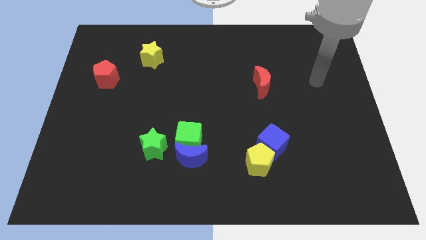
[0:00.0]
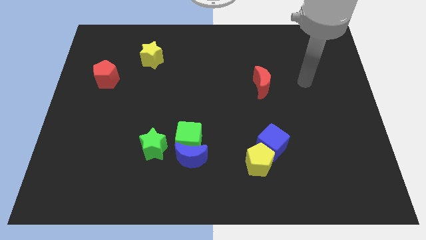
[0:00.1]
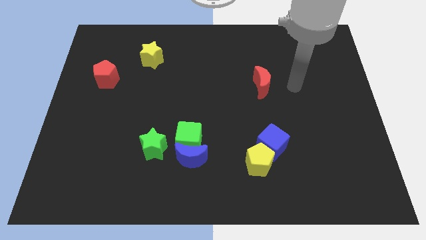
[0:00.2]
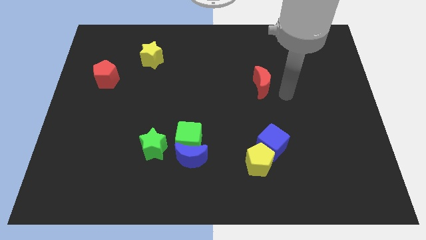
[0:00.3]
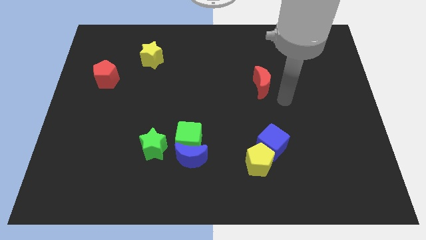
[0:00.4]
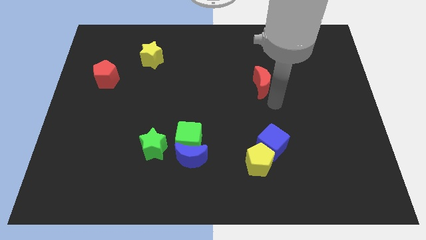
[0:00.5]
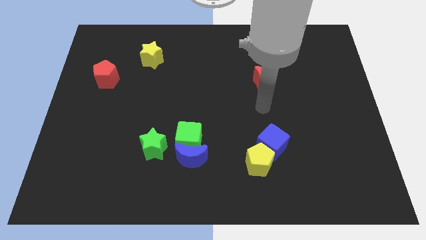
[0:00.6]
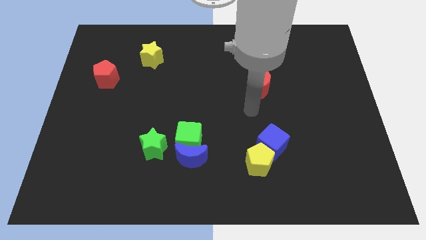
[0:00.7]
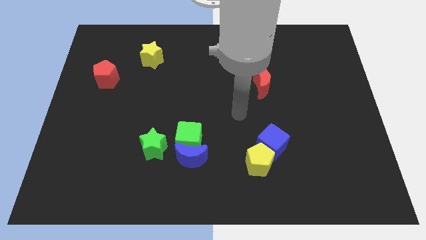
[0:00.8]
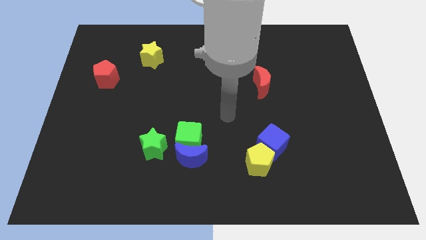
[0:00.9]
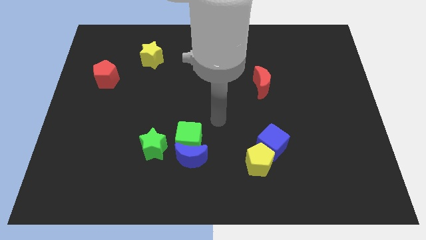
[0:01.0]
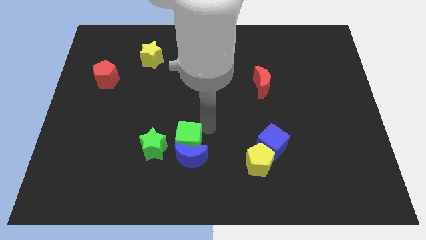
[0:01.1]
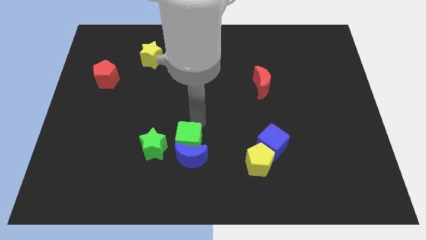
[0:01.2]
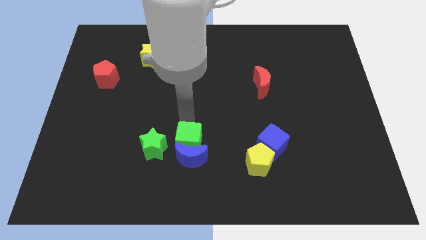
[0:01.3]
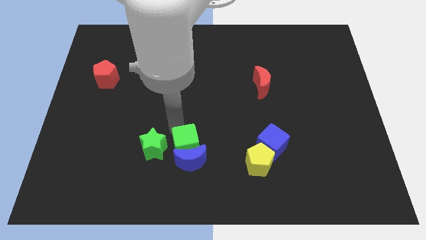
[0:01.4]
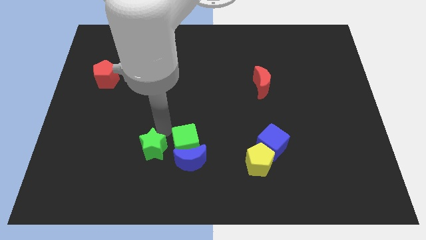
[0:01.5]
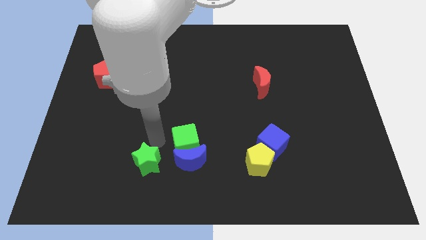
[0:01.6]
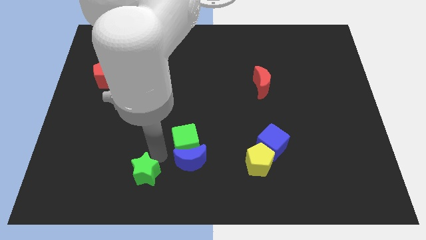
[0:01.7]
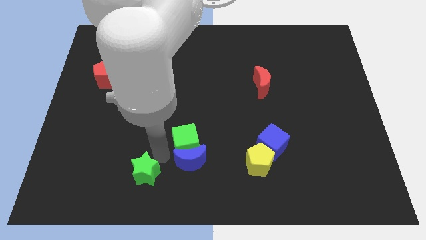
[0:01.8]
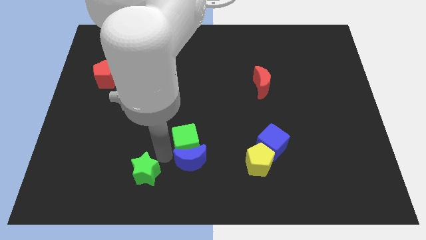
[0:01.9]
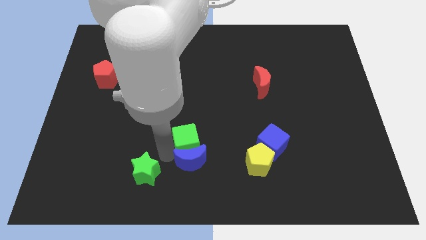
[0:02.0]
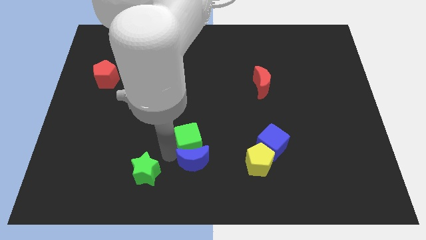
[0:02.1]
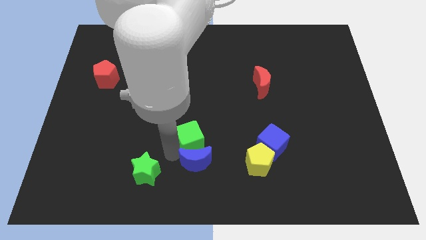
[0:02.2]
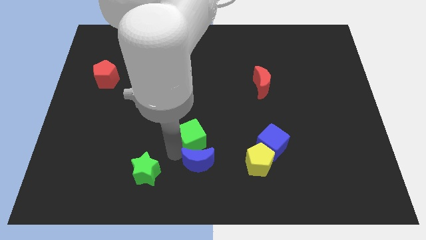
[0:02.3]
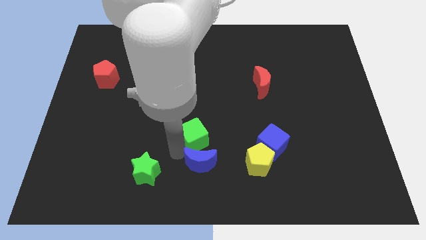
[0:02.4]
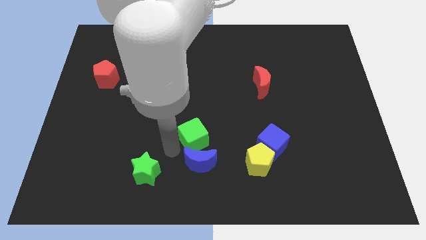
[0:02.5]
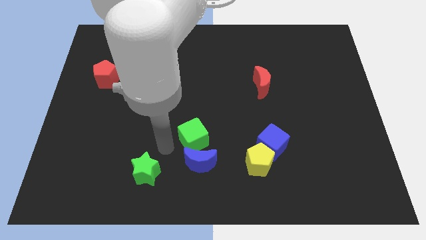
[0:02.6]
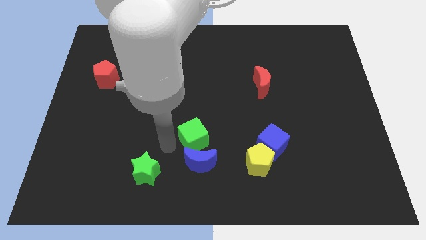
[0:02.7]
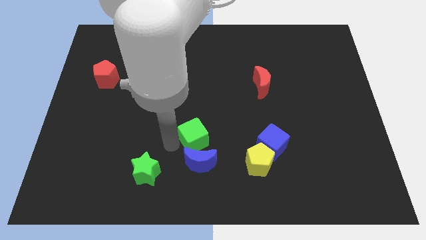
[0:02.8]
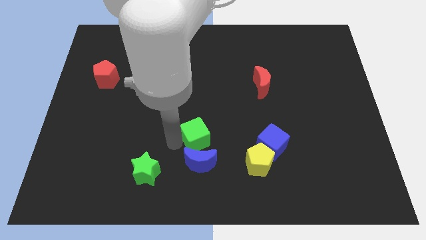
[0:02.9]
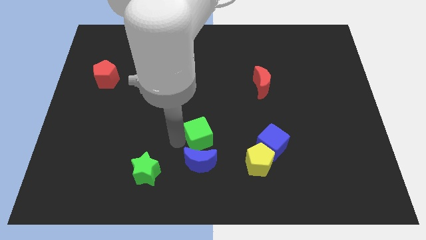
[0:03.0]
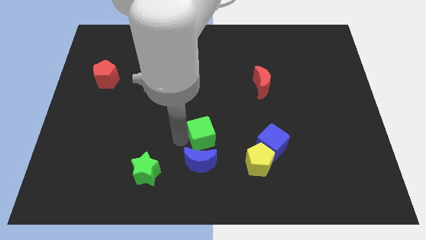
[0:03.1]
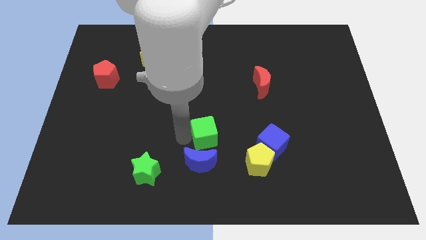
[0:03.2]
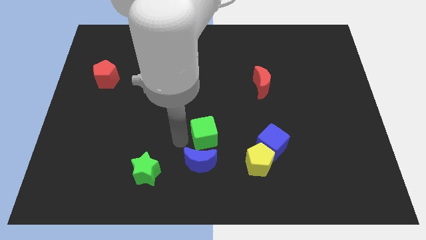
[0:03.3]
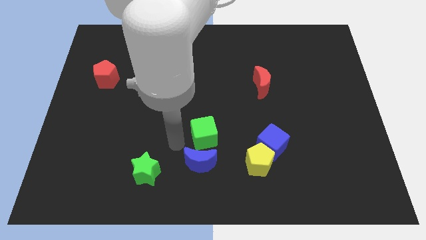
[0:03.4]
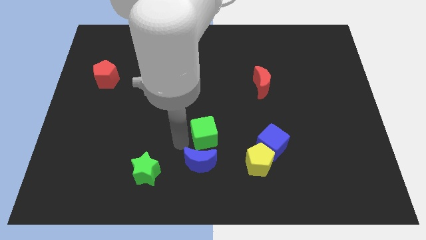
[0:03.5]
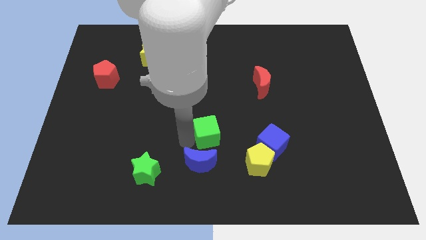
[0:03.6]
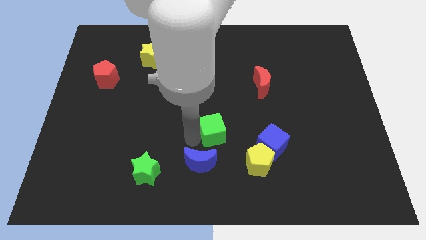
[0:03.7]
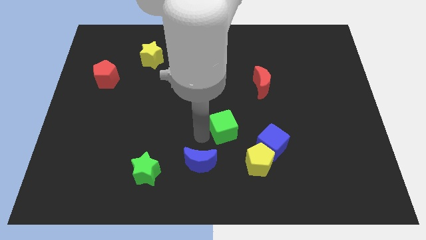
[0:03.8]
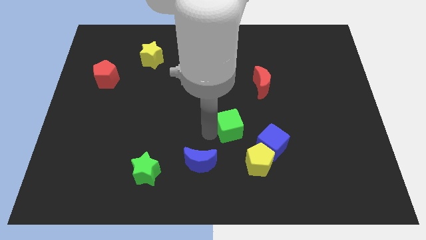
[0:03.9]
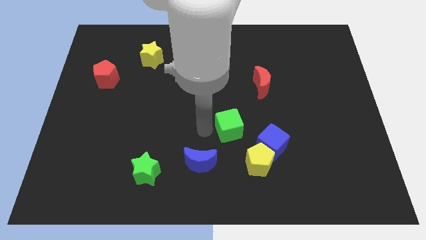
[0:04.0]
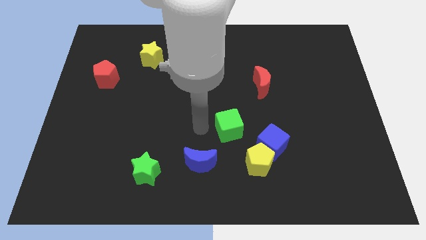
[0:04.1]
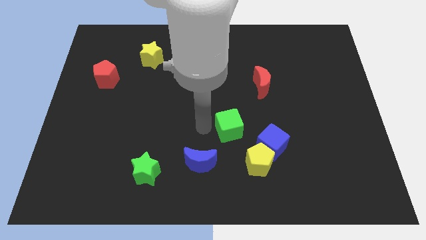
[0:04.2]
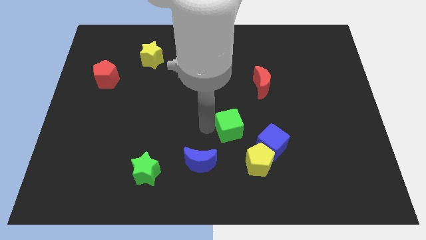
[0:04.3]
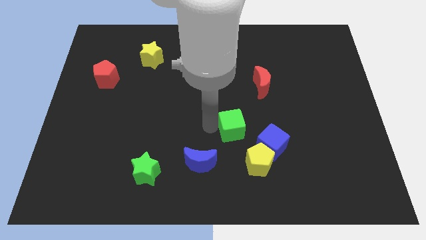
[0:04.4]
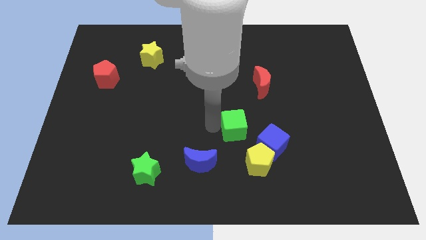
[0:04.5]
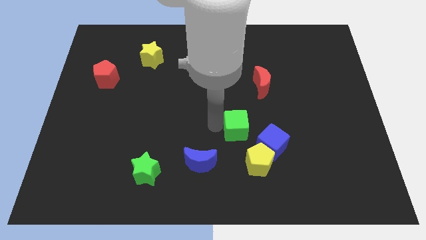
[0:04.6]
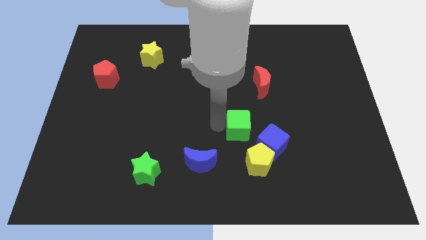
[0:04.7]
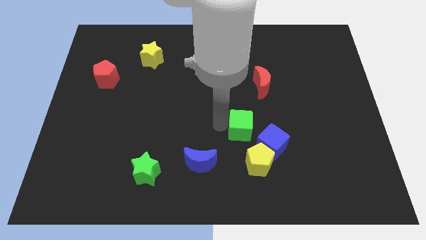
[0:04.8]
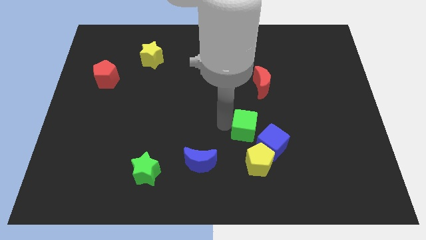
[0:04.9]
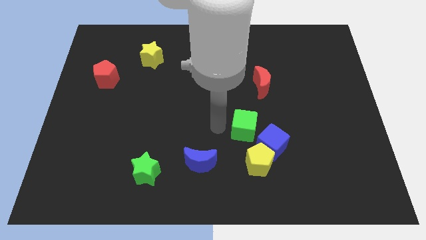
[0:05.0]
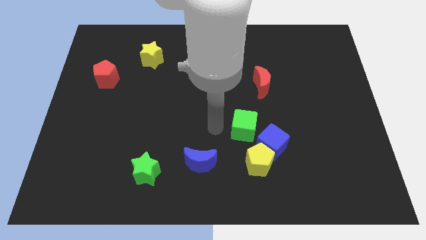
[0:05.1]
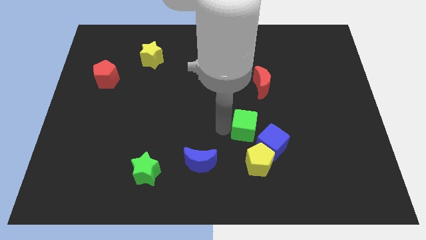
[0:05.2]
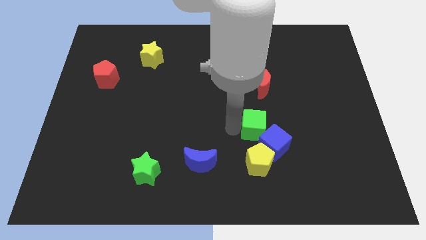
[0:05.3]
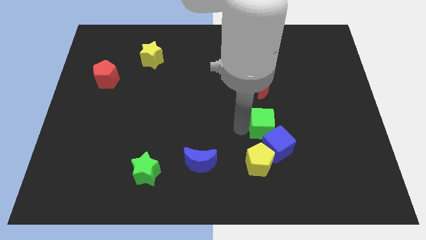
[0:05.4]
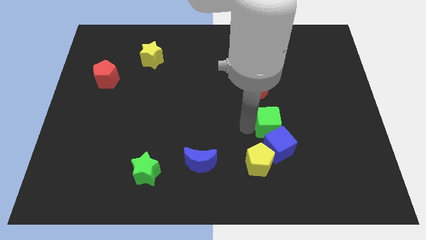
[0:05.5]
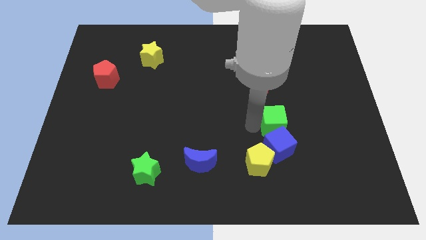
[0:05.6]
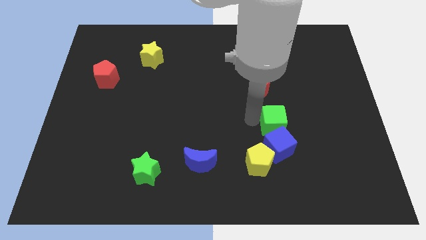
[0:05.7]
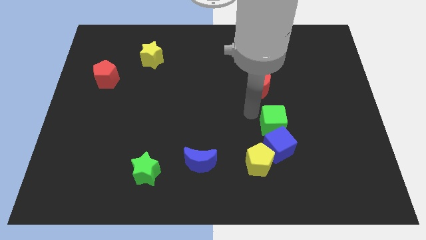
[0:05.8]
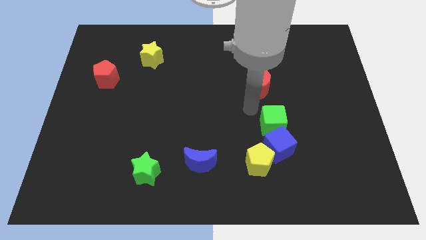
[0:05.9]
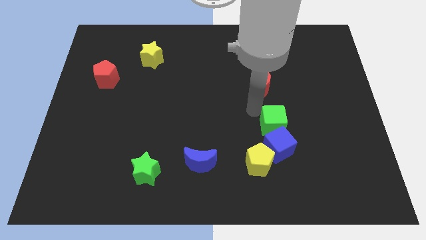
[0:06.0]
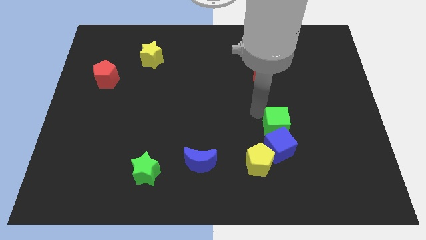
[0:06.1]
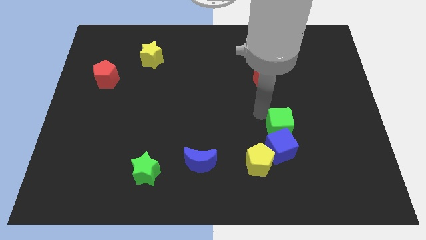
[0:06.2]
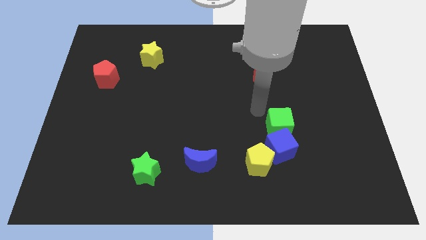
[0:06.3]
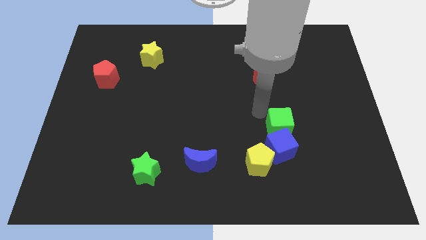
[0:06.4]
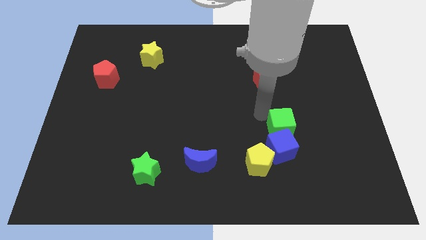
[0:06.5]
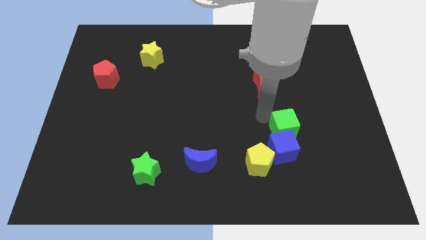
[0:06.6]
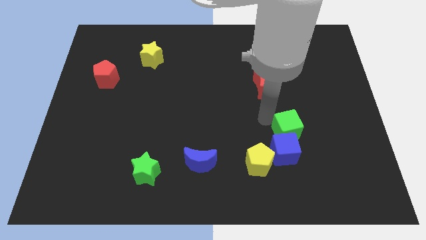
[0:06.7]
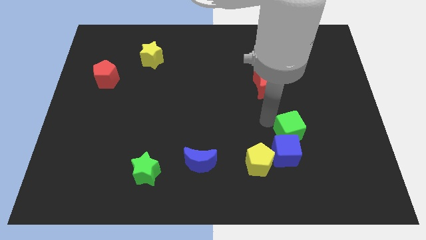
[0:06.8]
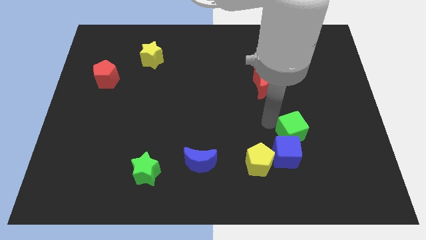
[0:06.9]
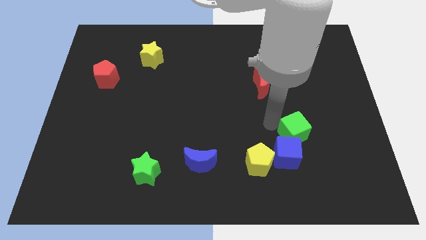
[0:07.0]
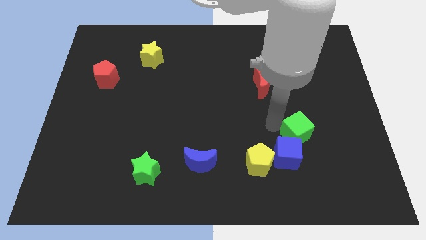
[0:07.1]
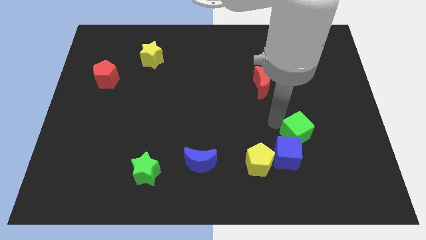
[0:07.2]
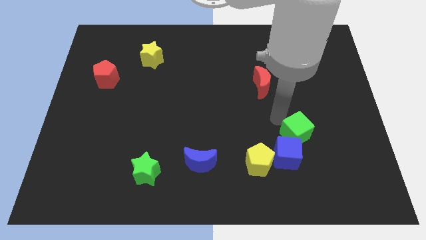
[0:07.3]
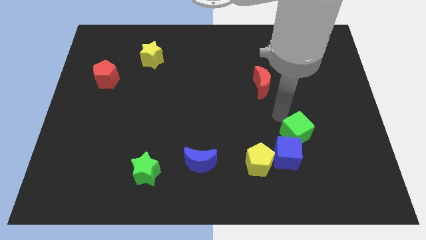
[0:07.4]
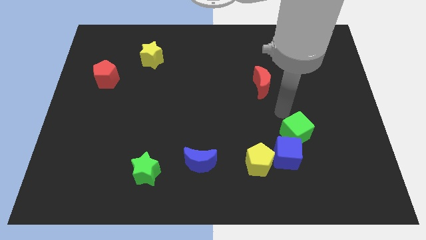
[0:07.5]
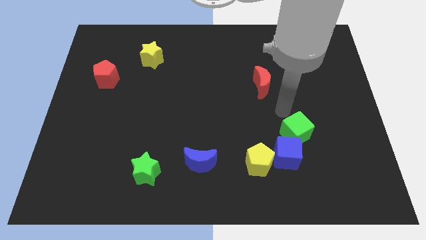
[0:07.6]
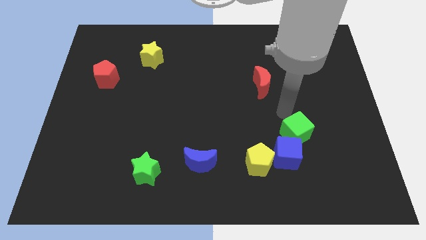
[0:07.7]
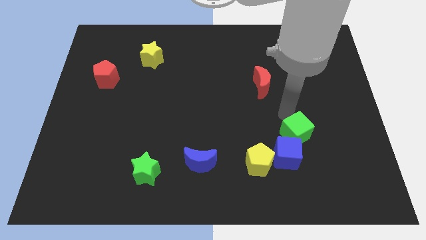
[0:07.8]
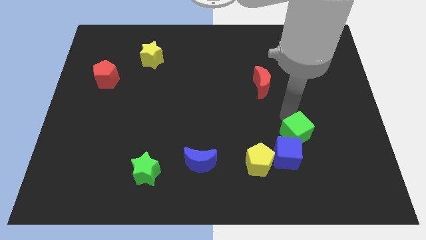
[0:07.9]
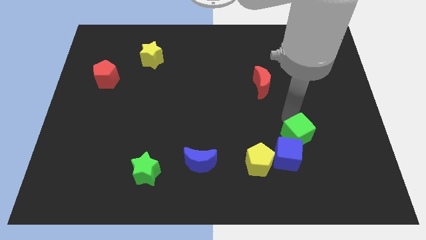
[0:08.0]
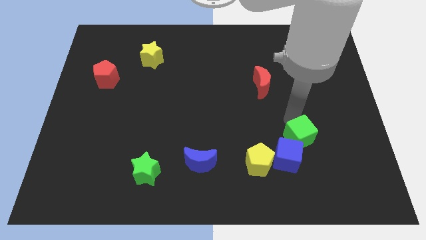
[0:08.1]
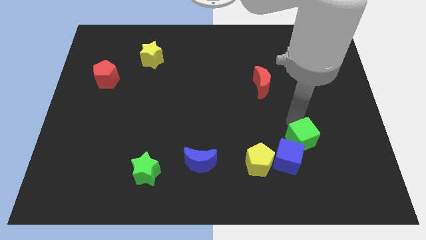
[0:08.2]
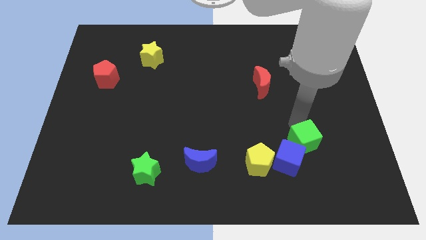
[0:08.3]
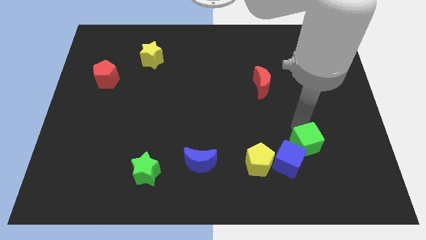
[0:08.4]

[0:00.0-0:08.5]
slide the green cube to the right of the yellow pentagon
